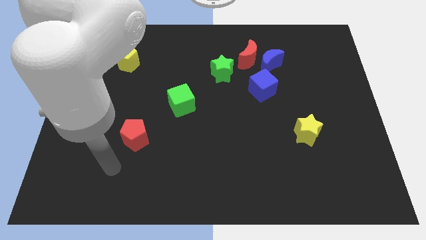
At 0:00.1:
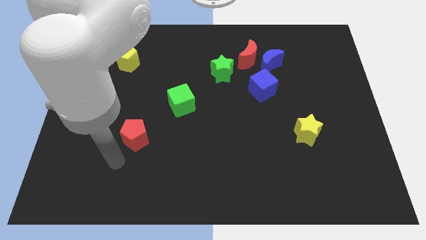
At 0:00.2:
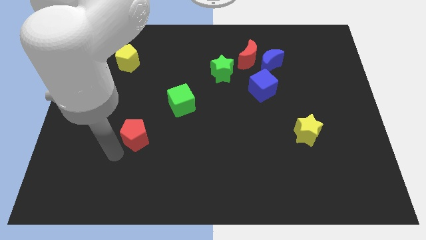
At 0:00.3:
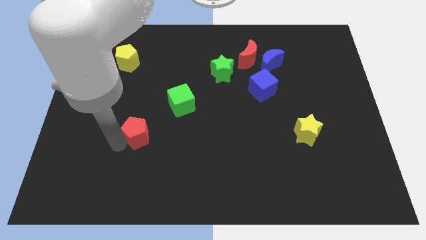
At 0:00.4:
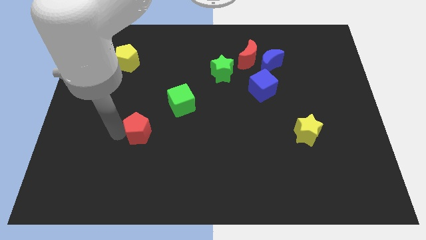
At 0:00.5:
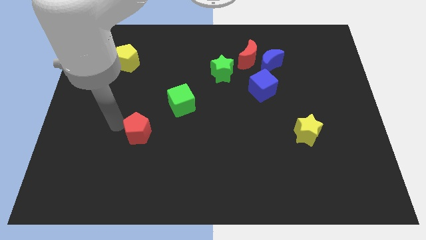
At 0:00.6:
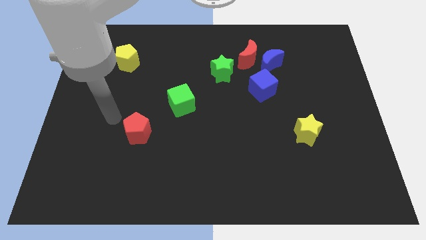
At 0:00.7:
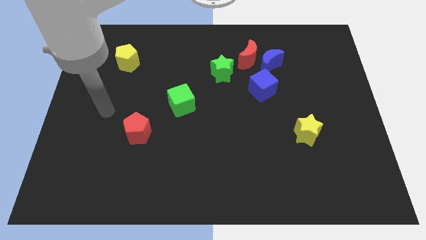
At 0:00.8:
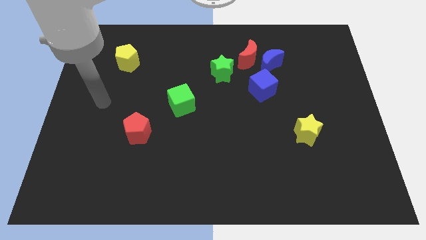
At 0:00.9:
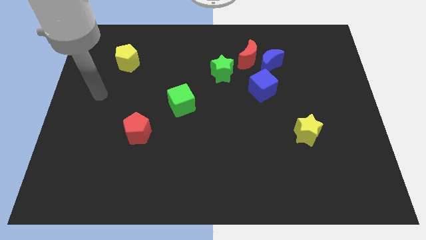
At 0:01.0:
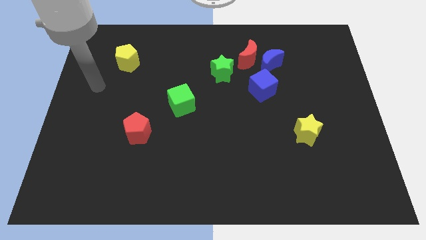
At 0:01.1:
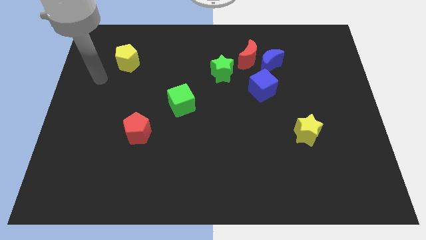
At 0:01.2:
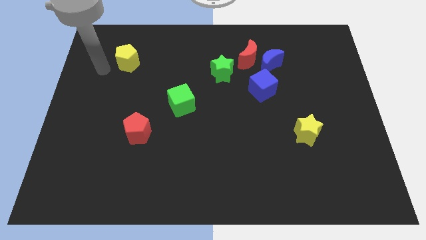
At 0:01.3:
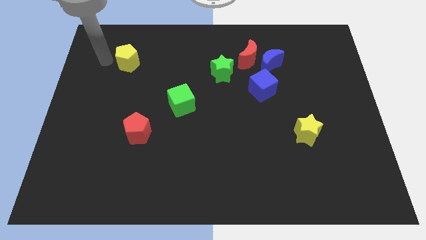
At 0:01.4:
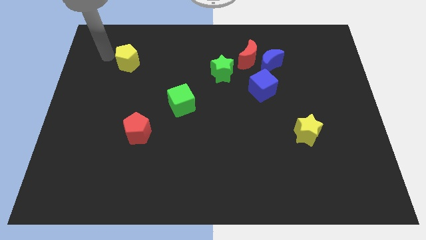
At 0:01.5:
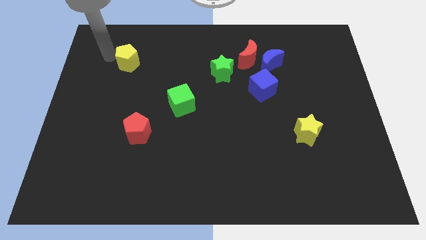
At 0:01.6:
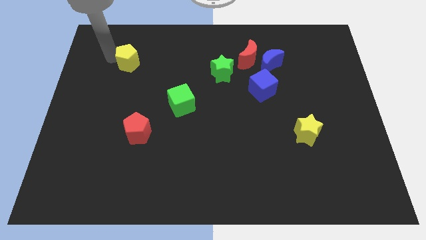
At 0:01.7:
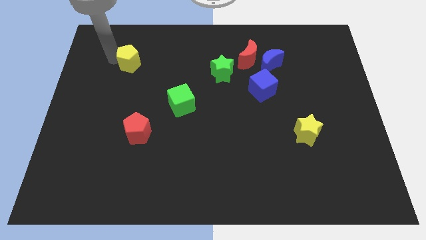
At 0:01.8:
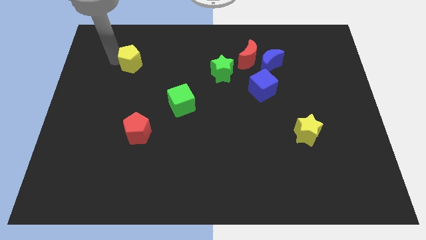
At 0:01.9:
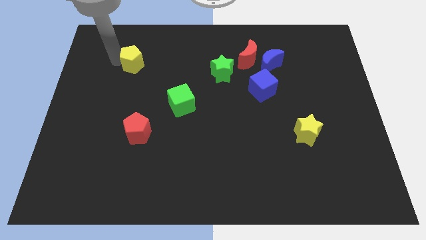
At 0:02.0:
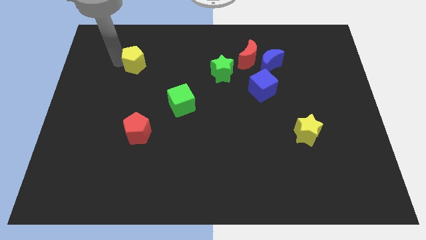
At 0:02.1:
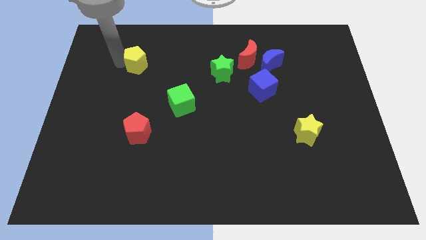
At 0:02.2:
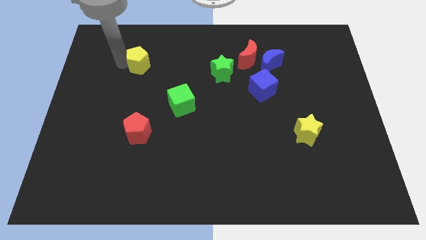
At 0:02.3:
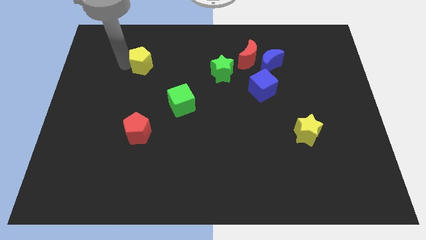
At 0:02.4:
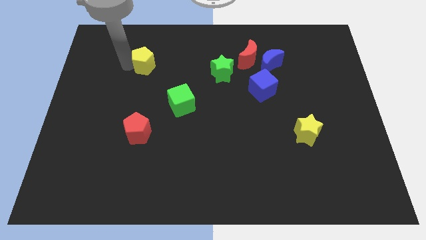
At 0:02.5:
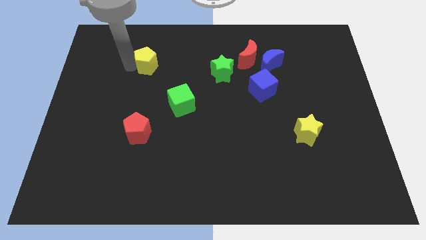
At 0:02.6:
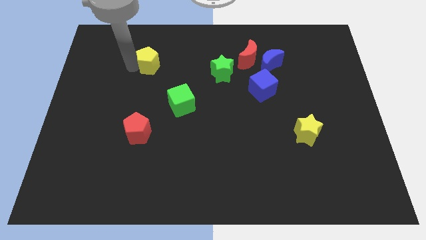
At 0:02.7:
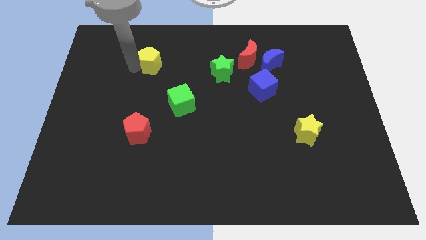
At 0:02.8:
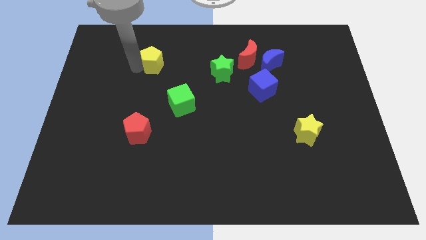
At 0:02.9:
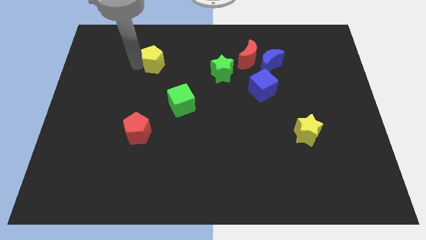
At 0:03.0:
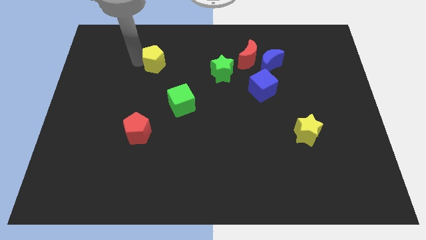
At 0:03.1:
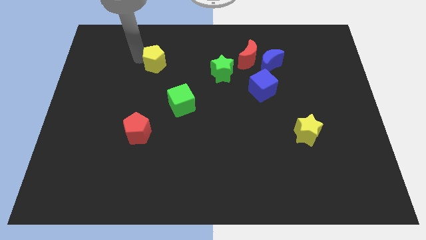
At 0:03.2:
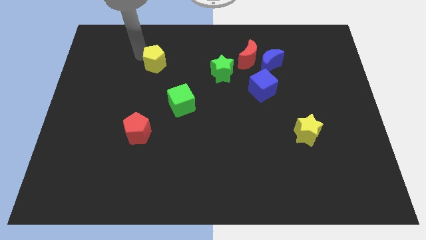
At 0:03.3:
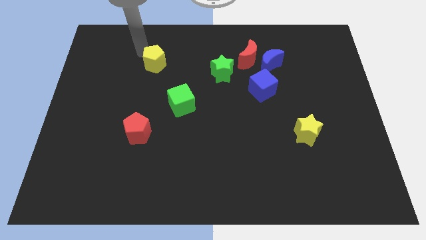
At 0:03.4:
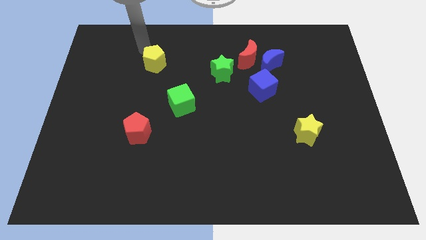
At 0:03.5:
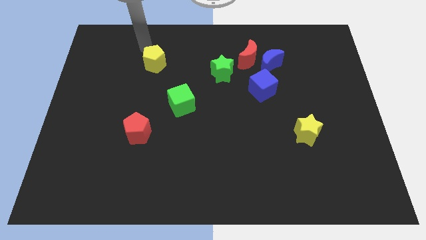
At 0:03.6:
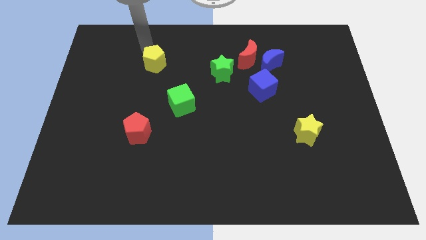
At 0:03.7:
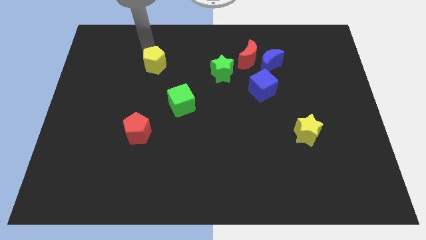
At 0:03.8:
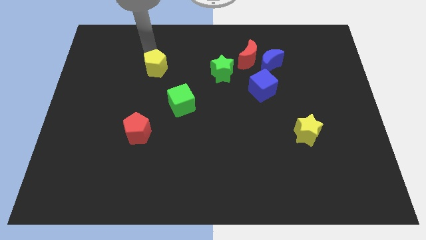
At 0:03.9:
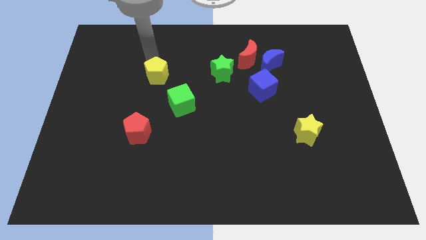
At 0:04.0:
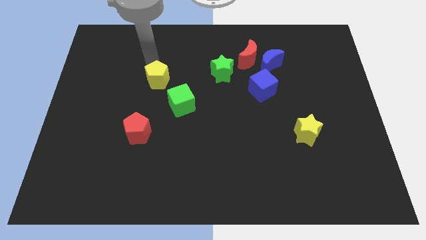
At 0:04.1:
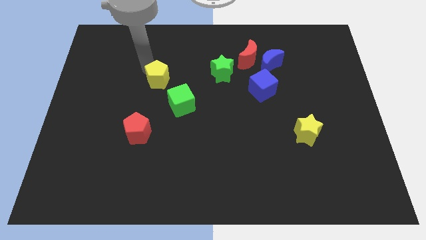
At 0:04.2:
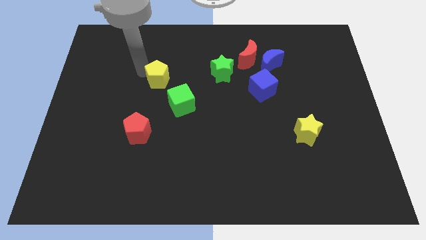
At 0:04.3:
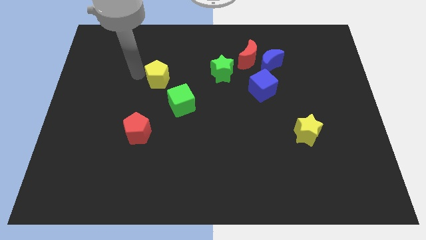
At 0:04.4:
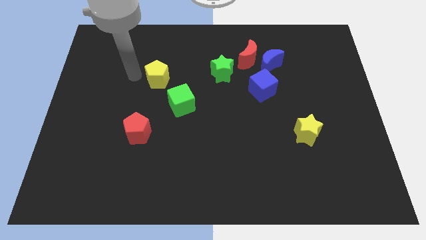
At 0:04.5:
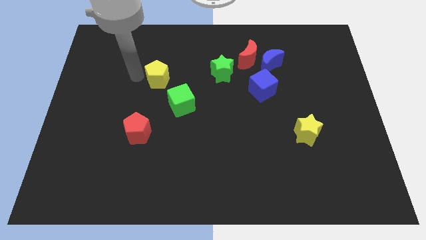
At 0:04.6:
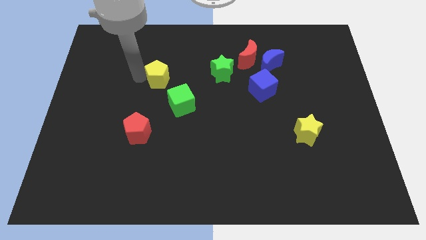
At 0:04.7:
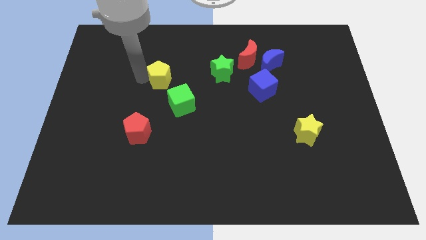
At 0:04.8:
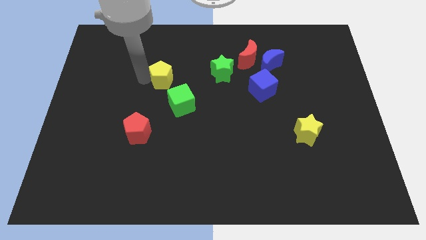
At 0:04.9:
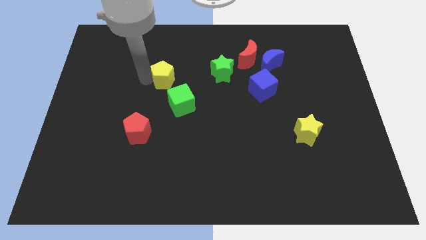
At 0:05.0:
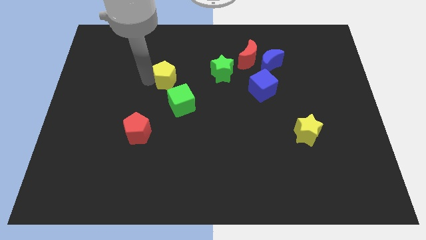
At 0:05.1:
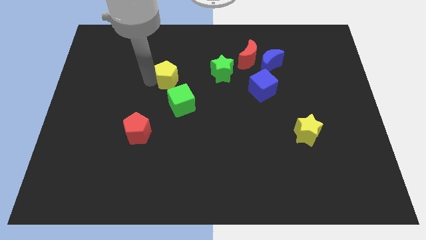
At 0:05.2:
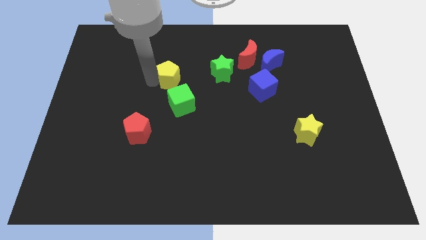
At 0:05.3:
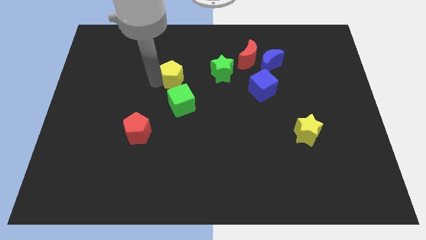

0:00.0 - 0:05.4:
put the yellow pentagon to the center

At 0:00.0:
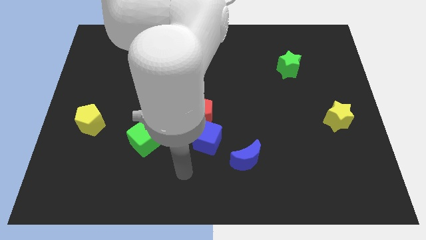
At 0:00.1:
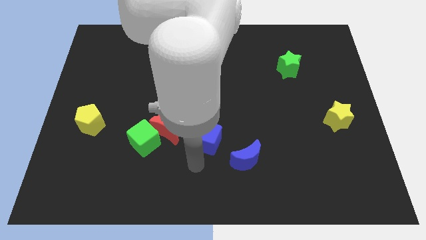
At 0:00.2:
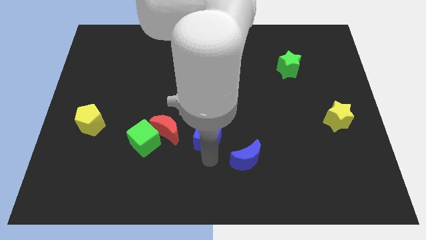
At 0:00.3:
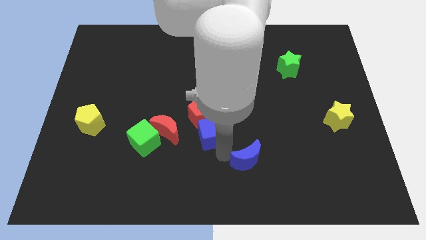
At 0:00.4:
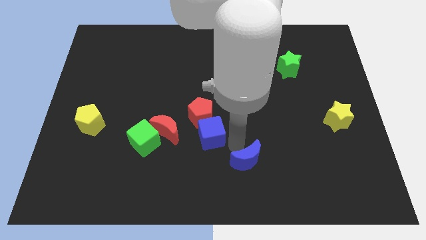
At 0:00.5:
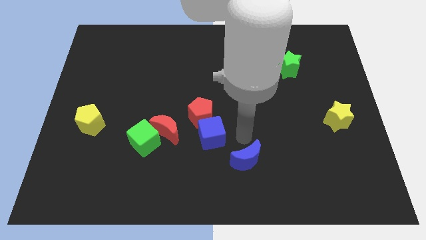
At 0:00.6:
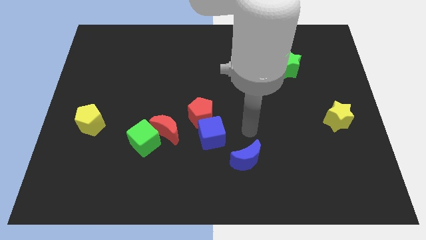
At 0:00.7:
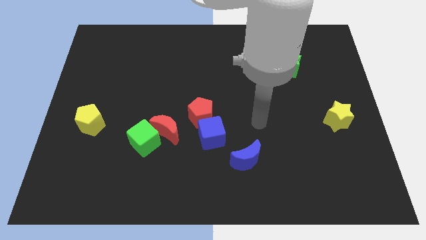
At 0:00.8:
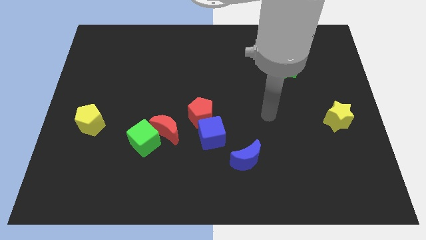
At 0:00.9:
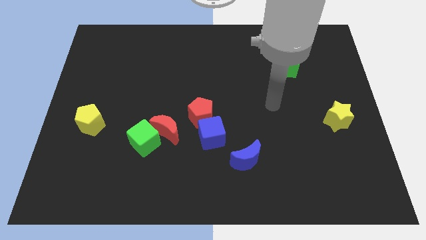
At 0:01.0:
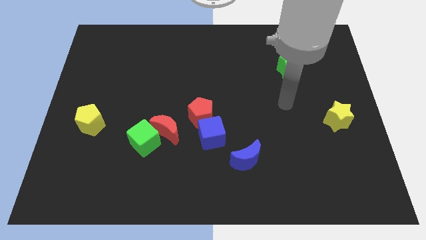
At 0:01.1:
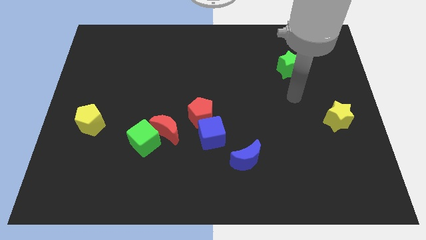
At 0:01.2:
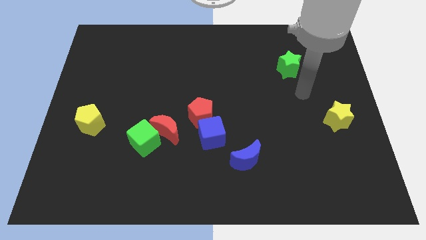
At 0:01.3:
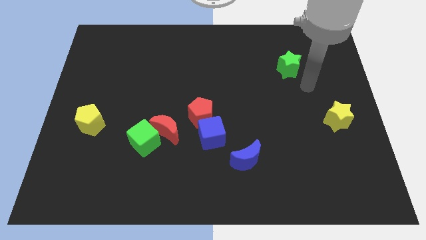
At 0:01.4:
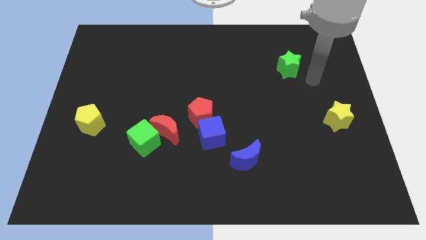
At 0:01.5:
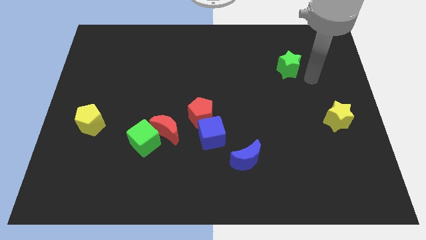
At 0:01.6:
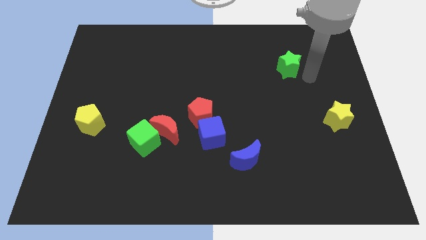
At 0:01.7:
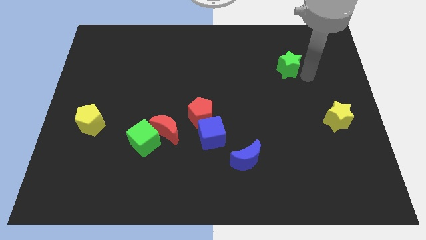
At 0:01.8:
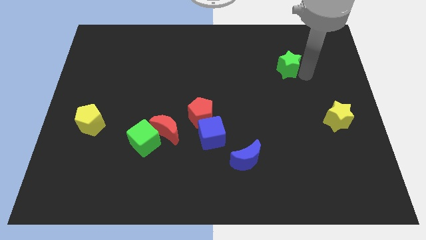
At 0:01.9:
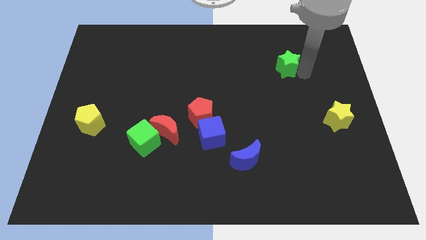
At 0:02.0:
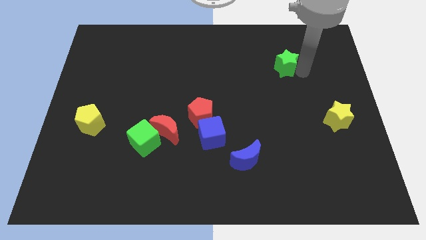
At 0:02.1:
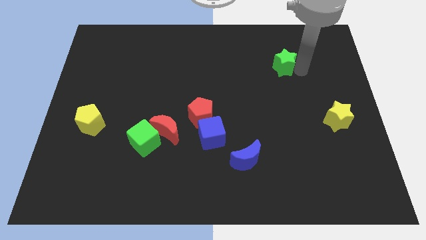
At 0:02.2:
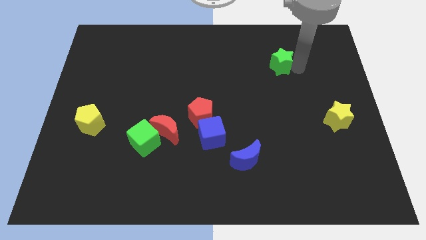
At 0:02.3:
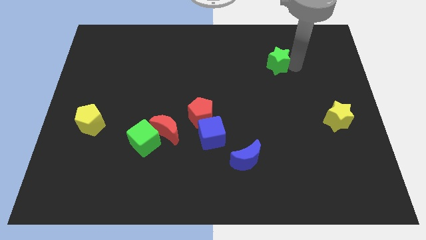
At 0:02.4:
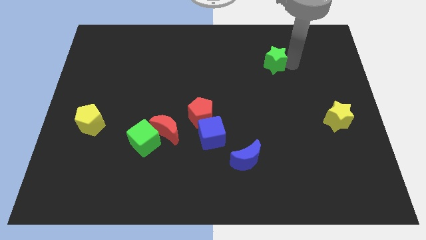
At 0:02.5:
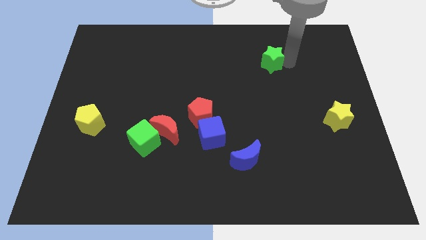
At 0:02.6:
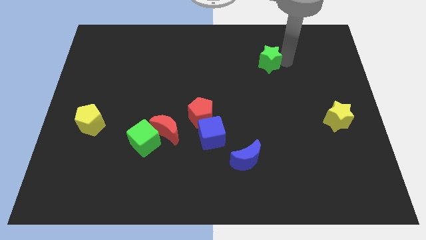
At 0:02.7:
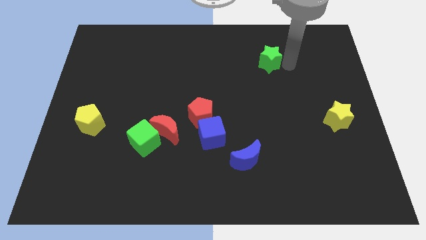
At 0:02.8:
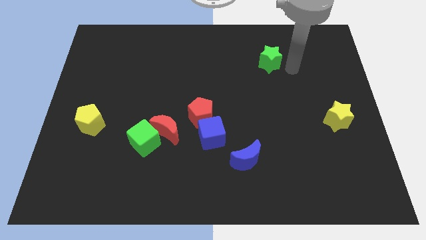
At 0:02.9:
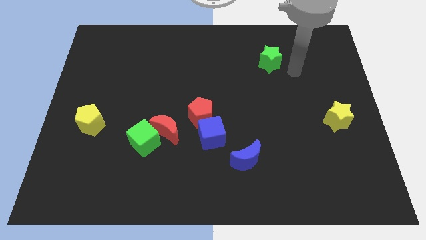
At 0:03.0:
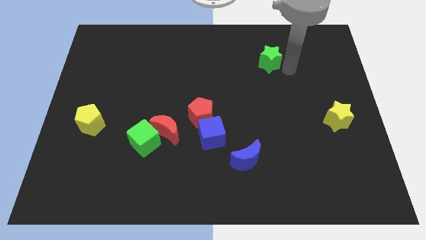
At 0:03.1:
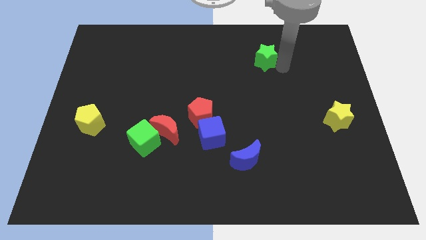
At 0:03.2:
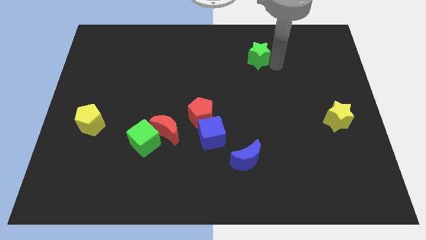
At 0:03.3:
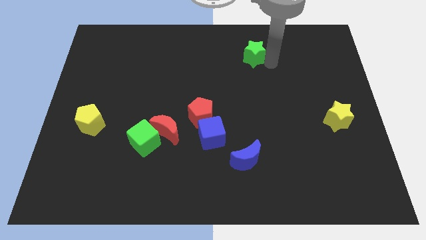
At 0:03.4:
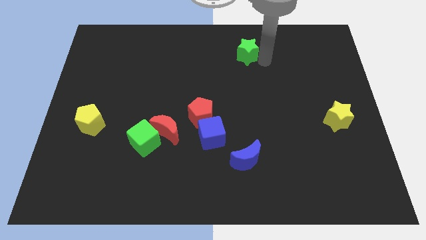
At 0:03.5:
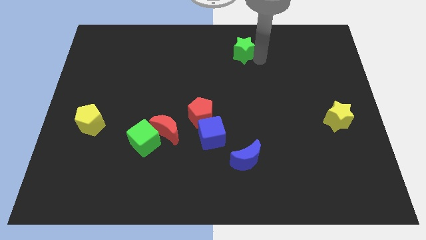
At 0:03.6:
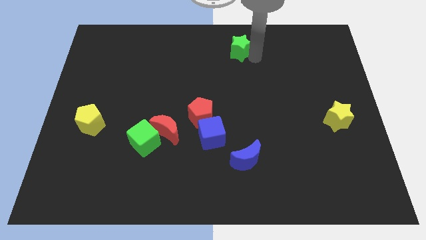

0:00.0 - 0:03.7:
put the green star to the top
